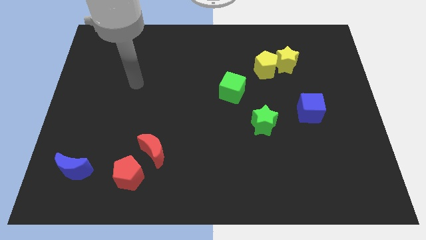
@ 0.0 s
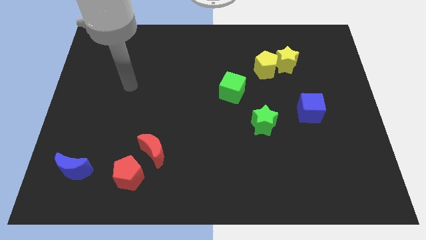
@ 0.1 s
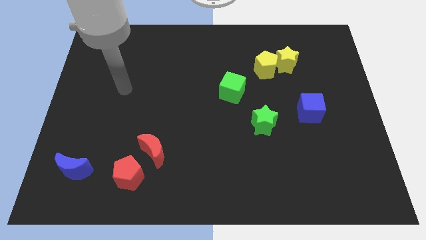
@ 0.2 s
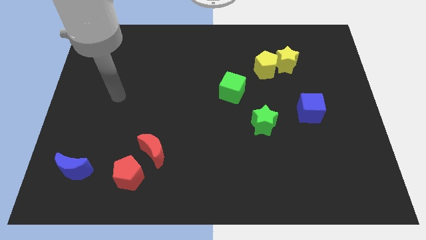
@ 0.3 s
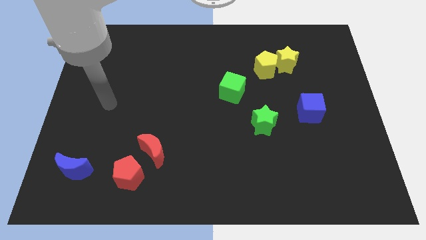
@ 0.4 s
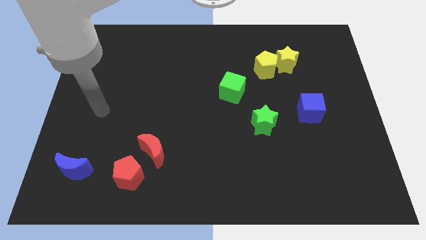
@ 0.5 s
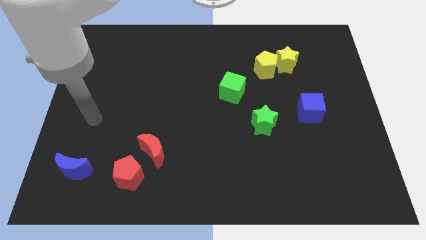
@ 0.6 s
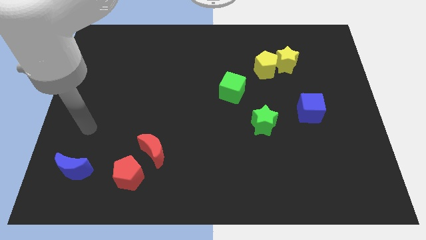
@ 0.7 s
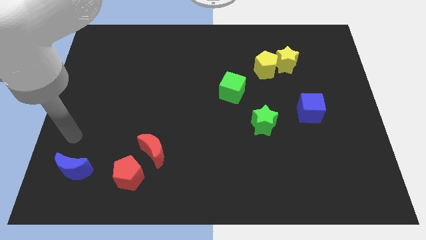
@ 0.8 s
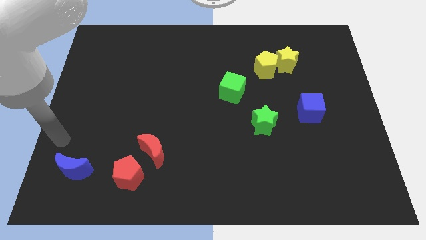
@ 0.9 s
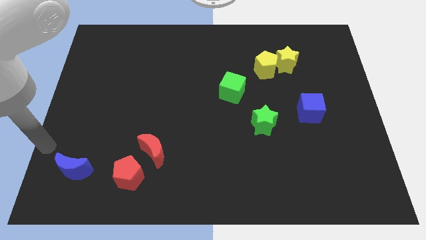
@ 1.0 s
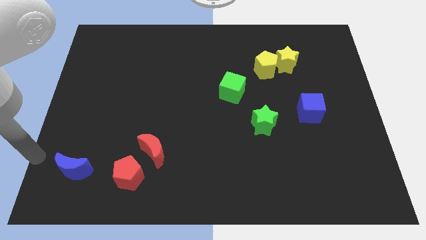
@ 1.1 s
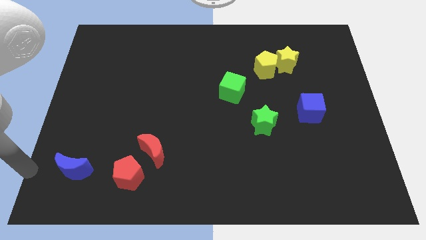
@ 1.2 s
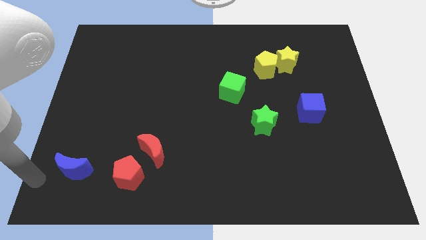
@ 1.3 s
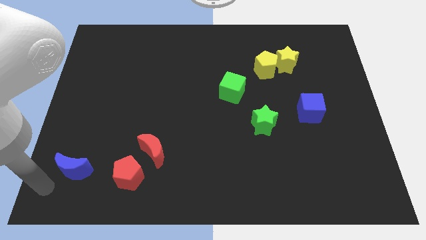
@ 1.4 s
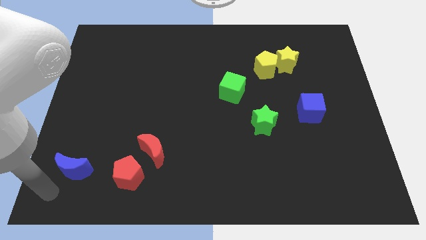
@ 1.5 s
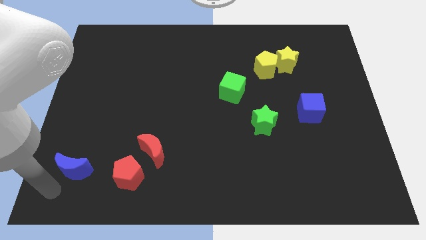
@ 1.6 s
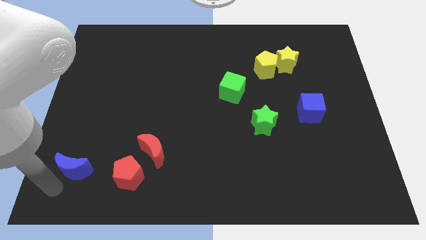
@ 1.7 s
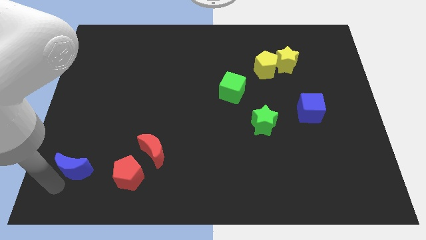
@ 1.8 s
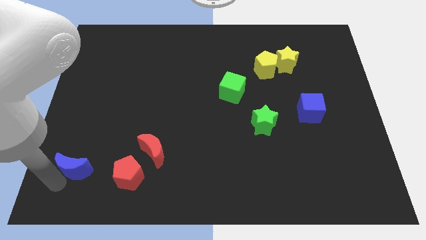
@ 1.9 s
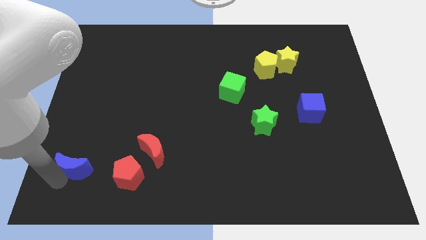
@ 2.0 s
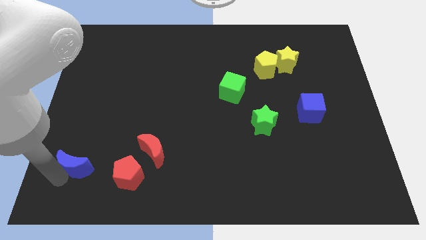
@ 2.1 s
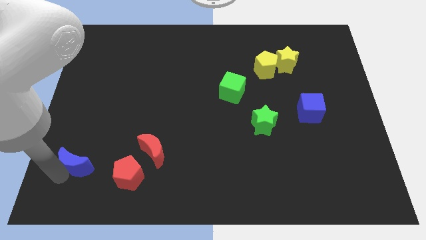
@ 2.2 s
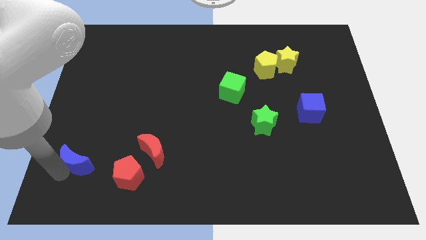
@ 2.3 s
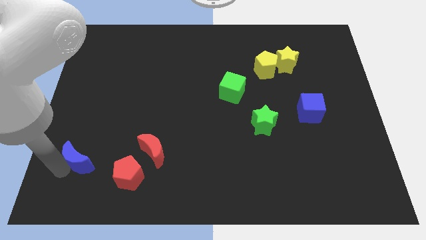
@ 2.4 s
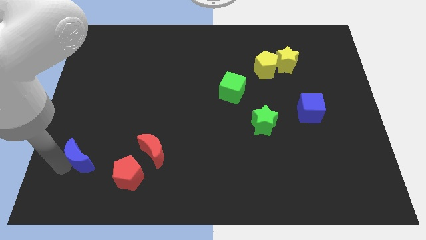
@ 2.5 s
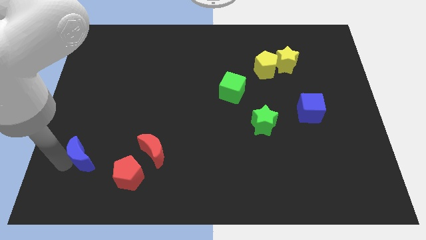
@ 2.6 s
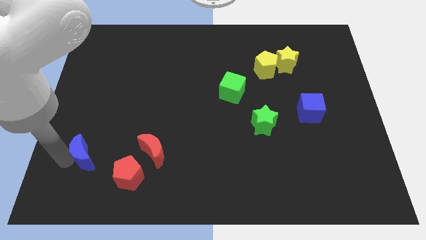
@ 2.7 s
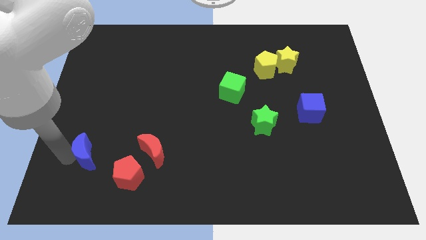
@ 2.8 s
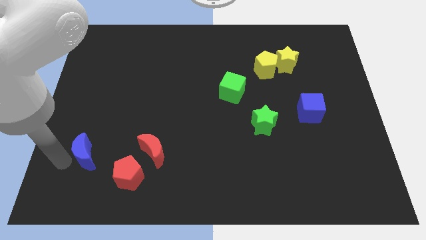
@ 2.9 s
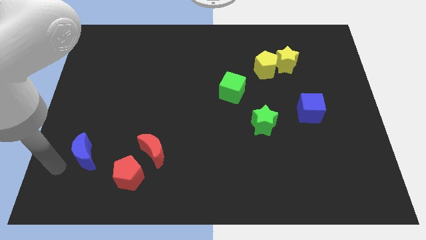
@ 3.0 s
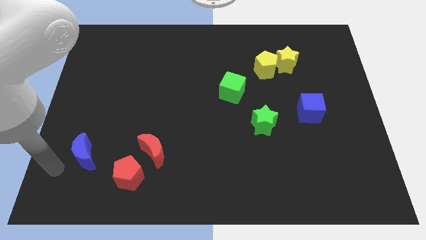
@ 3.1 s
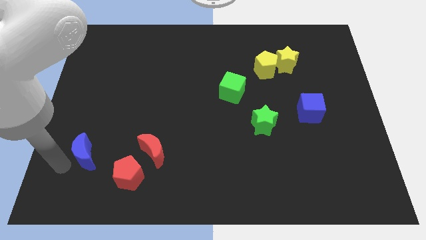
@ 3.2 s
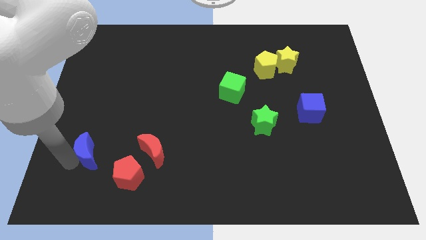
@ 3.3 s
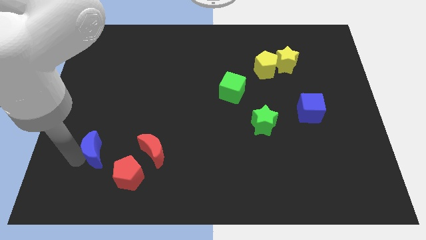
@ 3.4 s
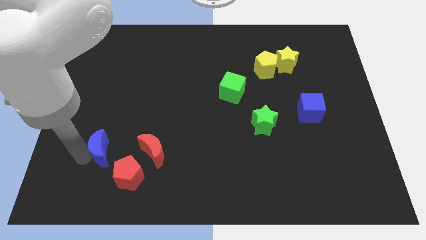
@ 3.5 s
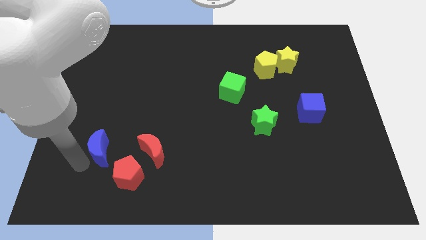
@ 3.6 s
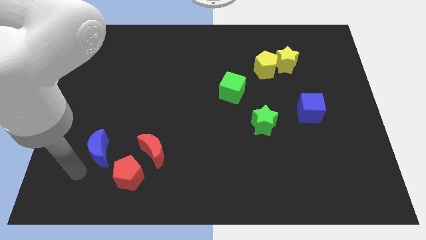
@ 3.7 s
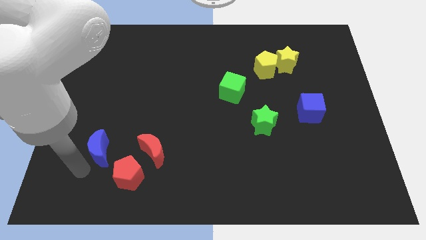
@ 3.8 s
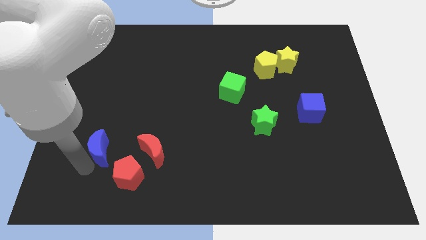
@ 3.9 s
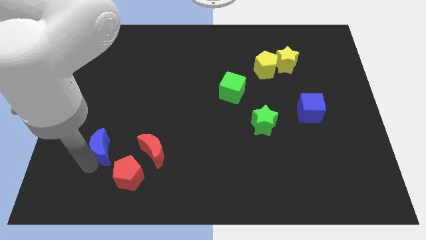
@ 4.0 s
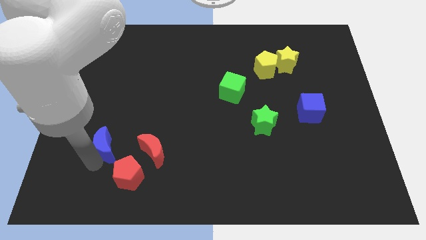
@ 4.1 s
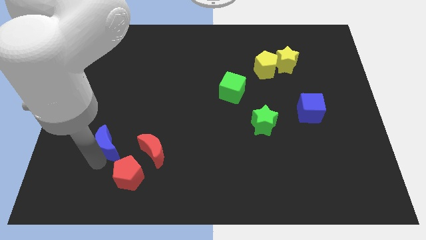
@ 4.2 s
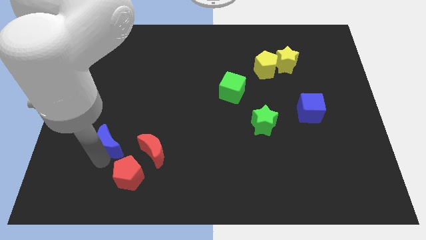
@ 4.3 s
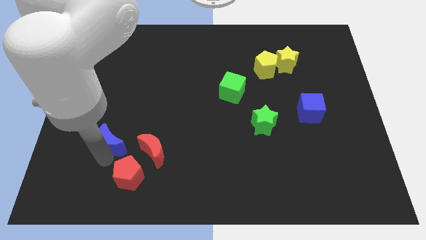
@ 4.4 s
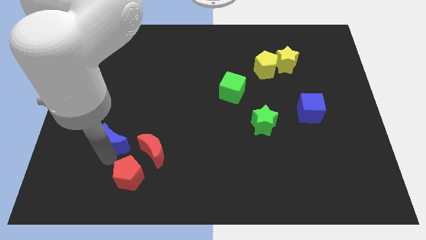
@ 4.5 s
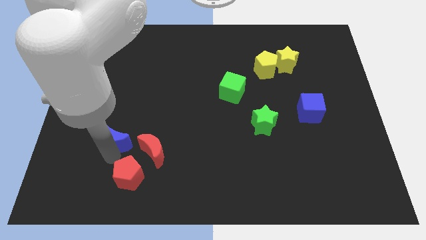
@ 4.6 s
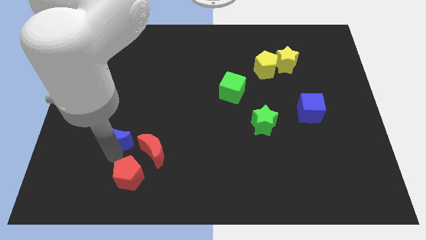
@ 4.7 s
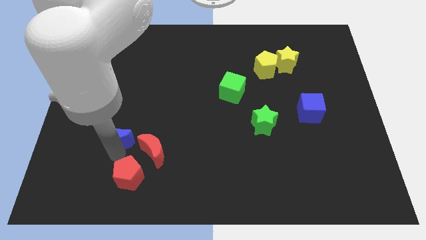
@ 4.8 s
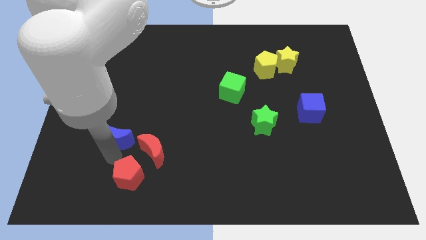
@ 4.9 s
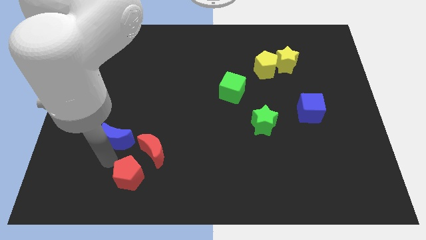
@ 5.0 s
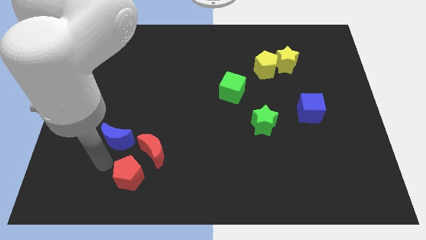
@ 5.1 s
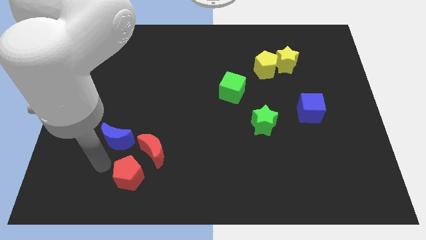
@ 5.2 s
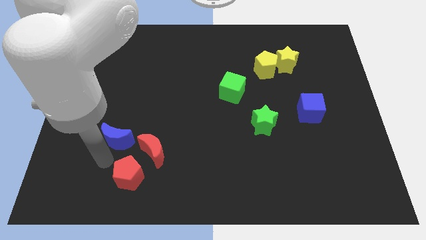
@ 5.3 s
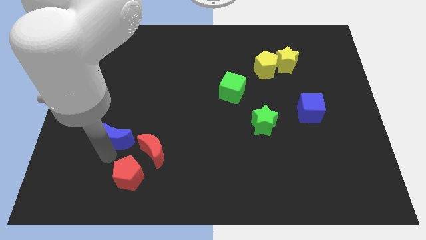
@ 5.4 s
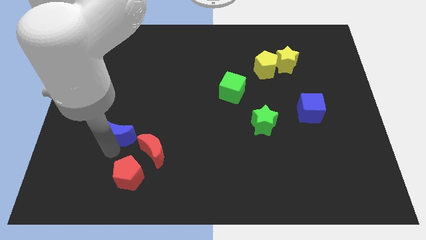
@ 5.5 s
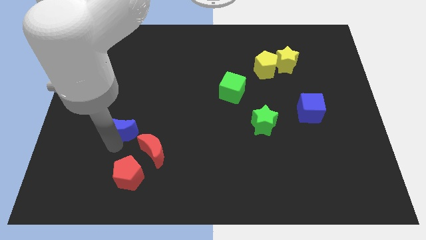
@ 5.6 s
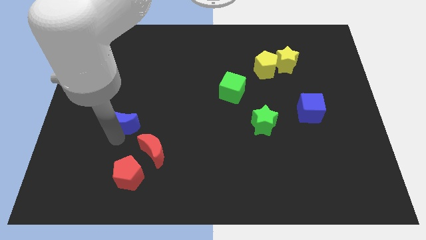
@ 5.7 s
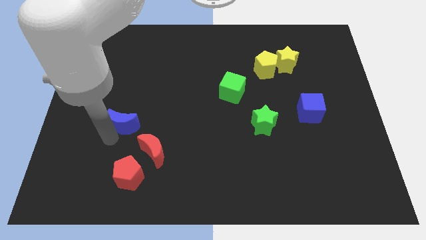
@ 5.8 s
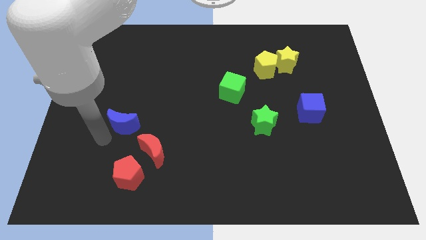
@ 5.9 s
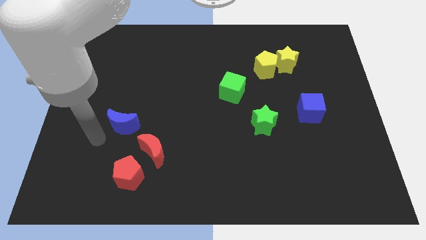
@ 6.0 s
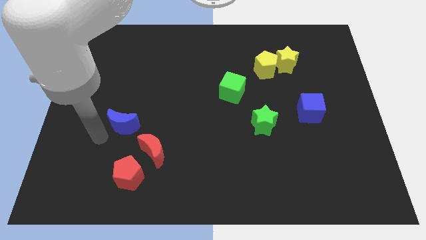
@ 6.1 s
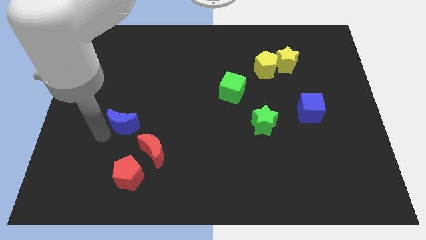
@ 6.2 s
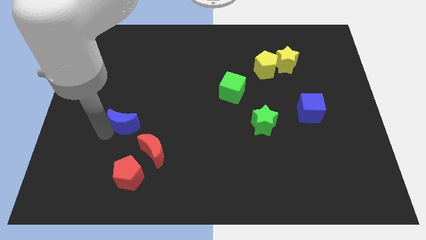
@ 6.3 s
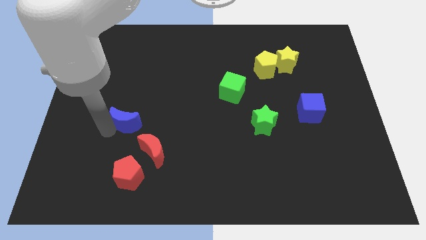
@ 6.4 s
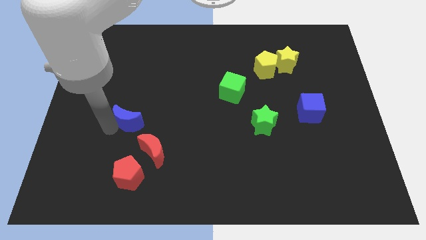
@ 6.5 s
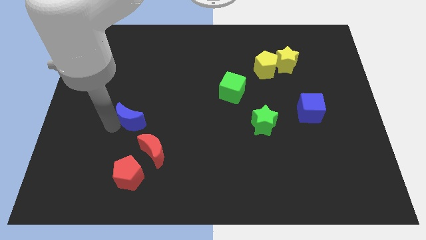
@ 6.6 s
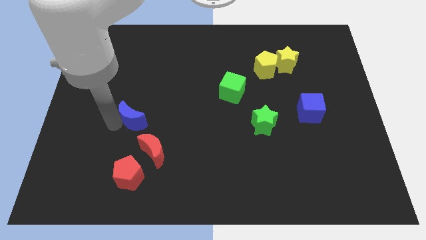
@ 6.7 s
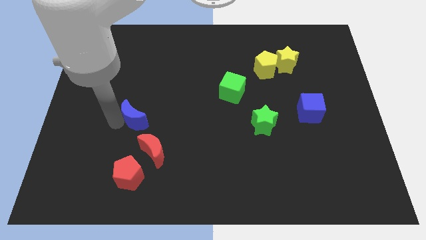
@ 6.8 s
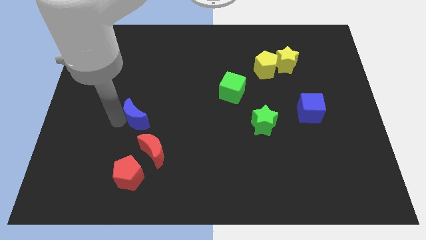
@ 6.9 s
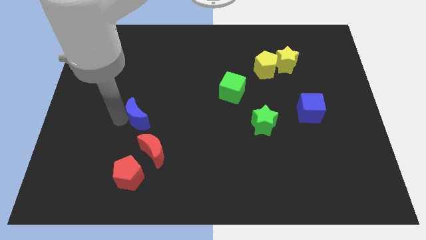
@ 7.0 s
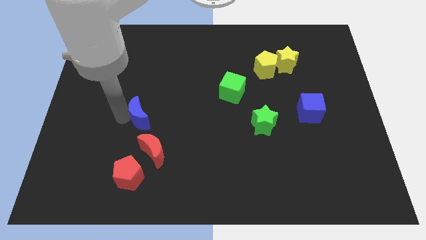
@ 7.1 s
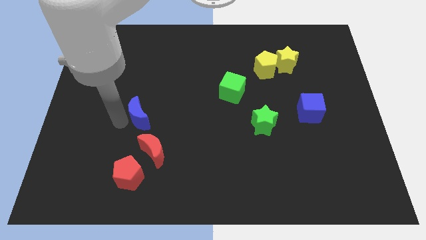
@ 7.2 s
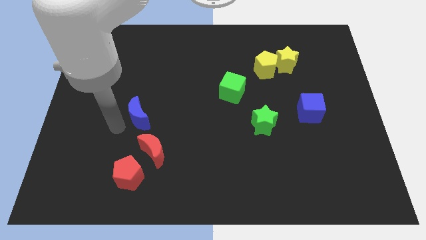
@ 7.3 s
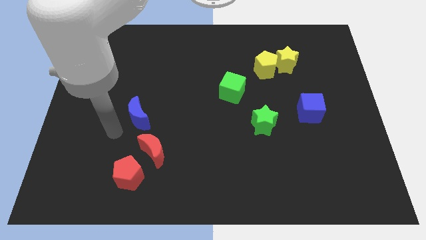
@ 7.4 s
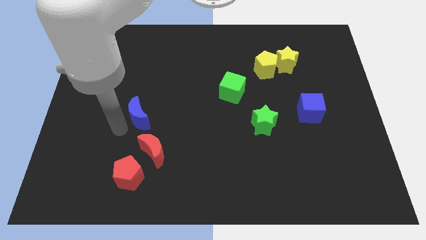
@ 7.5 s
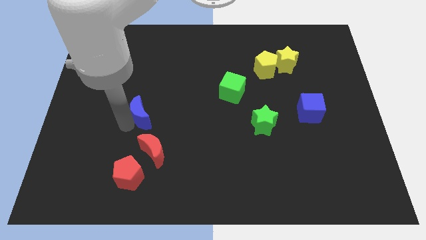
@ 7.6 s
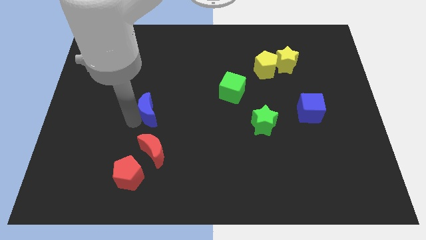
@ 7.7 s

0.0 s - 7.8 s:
move the blue moon upwards and to the right diagonally
